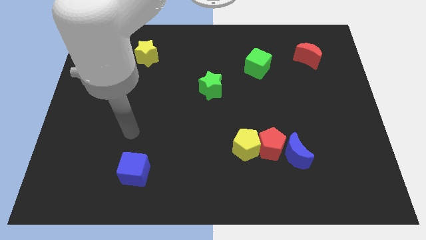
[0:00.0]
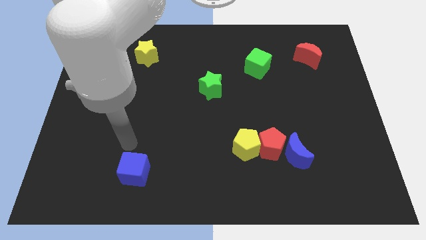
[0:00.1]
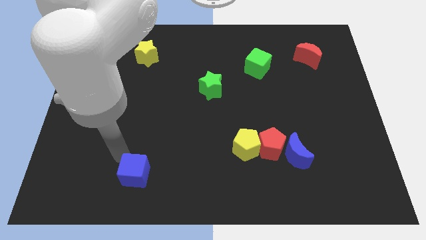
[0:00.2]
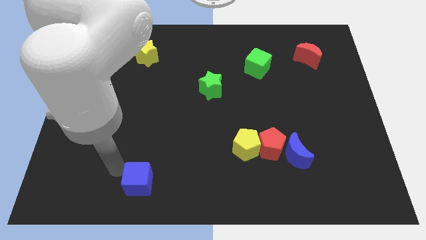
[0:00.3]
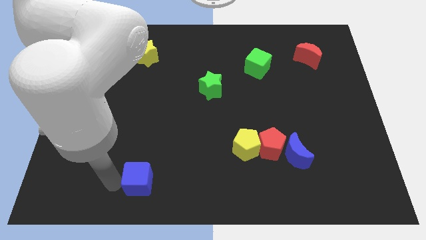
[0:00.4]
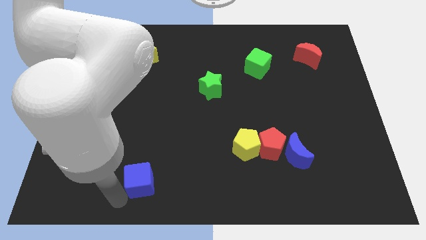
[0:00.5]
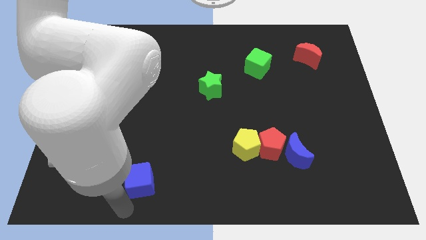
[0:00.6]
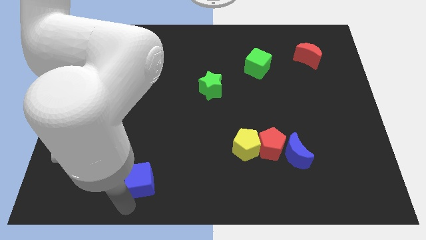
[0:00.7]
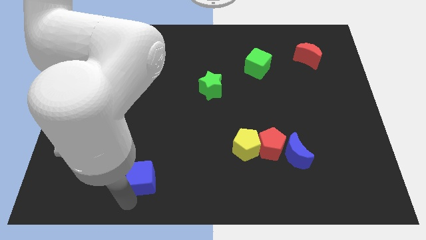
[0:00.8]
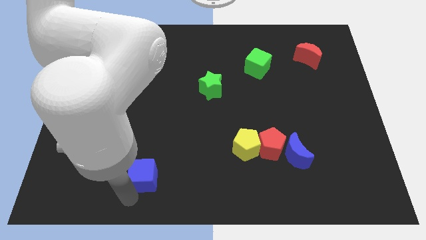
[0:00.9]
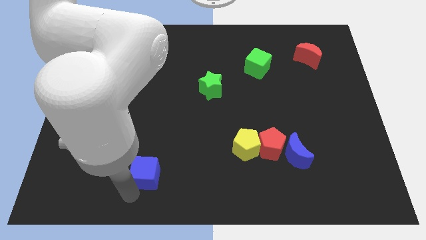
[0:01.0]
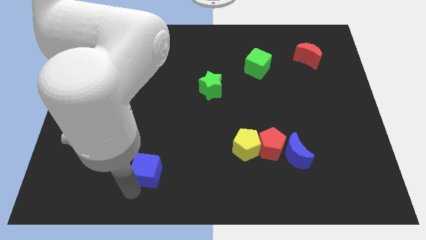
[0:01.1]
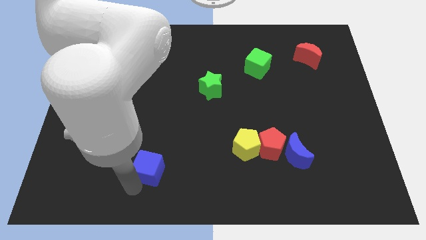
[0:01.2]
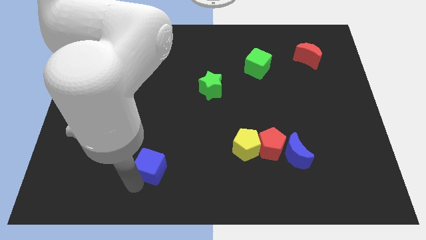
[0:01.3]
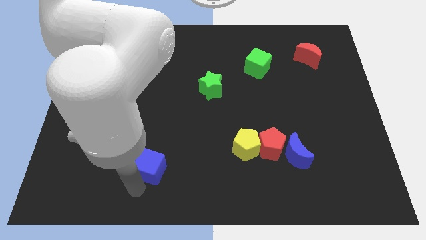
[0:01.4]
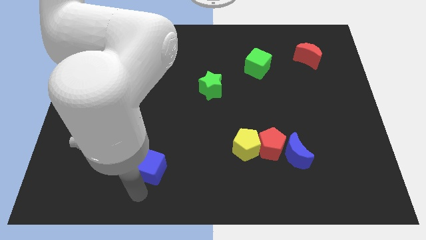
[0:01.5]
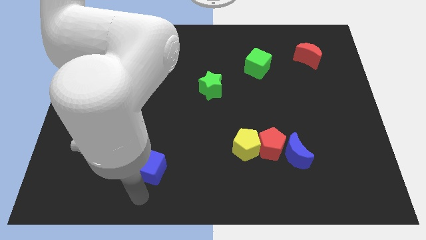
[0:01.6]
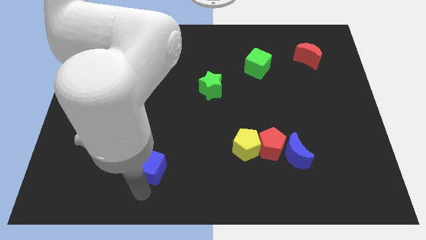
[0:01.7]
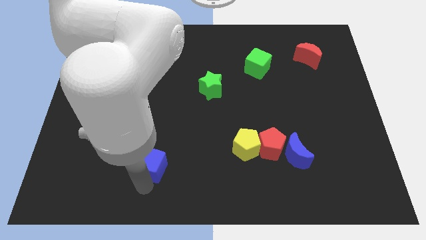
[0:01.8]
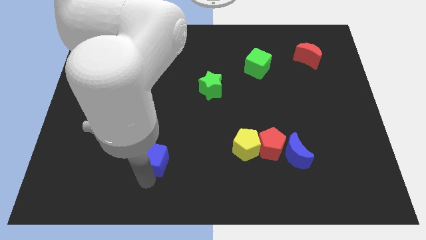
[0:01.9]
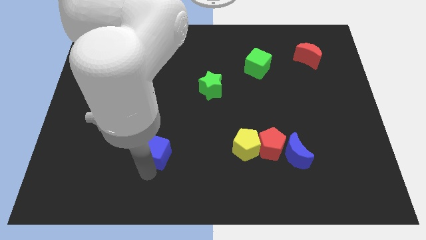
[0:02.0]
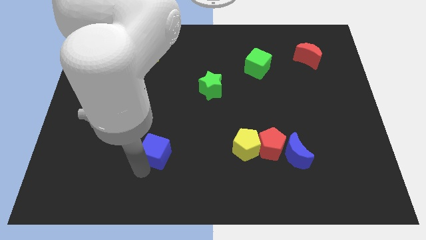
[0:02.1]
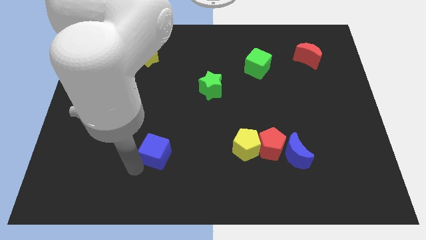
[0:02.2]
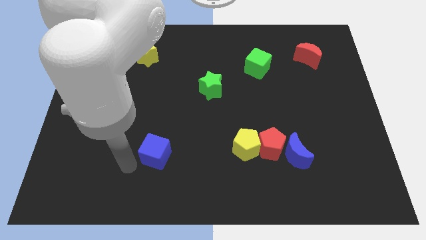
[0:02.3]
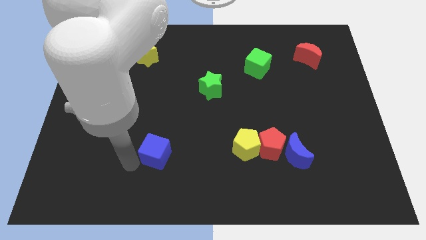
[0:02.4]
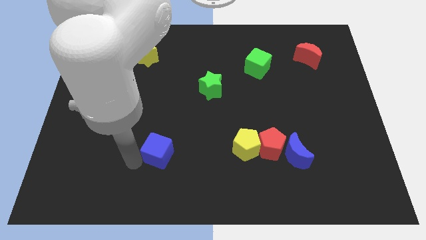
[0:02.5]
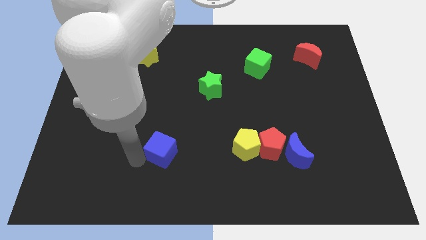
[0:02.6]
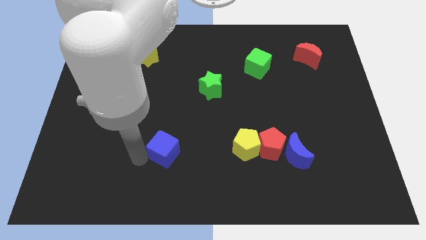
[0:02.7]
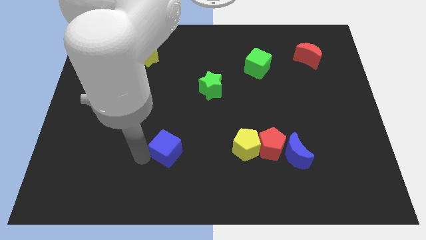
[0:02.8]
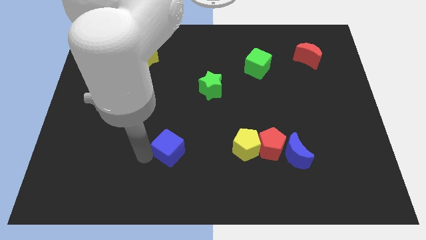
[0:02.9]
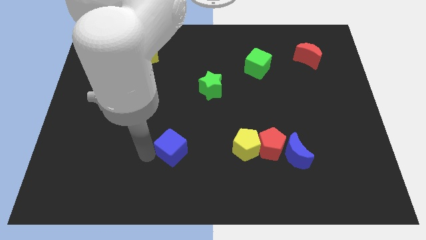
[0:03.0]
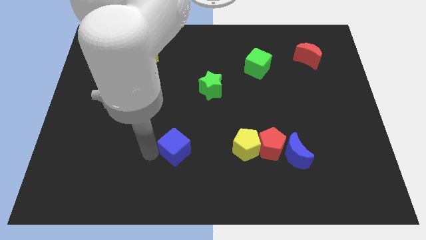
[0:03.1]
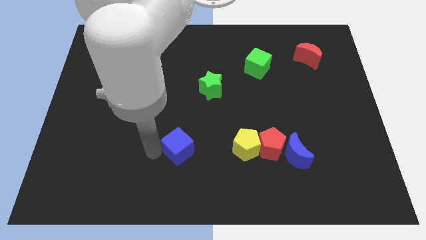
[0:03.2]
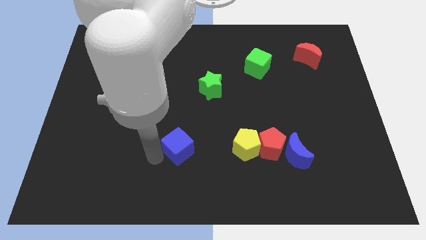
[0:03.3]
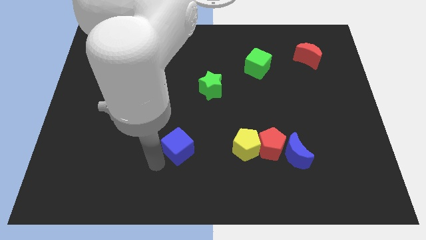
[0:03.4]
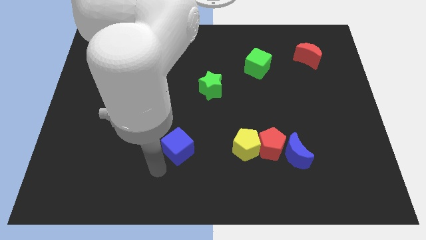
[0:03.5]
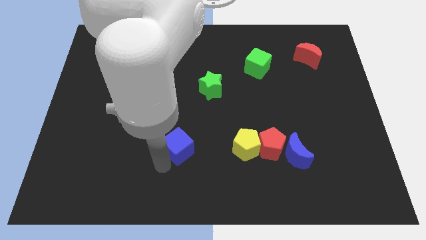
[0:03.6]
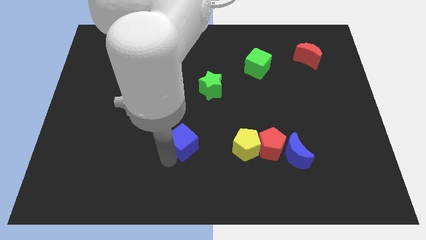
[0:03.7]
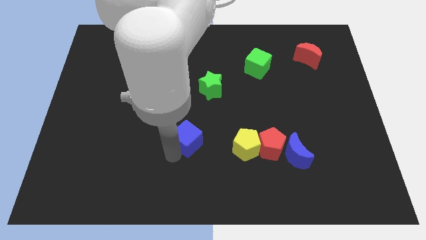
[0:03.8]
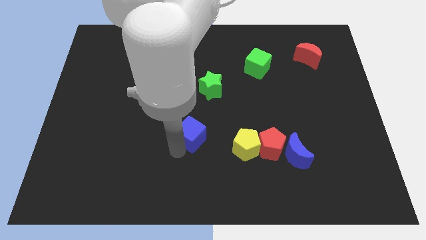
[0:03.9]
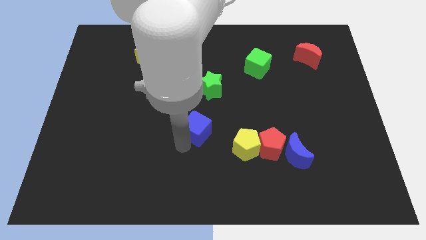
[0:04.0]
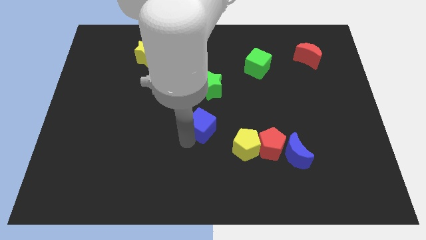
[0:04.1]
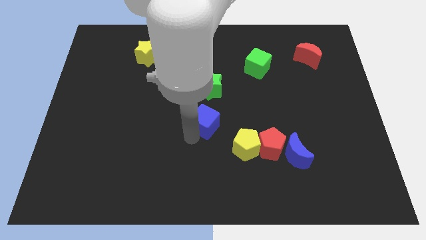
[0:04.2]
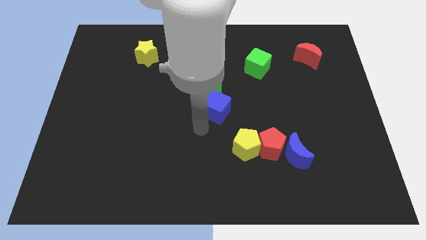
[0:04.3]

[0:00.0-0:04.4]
slide the blue cube diagonally up and right

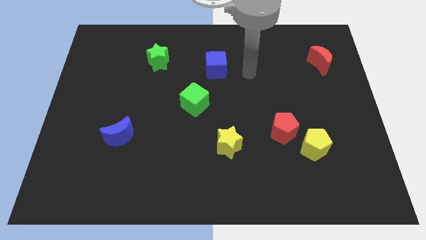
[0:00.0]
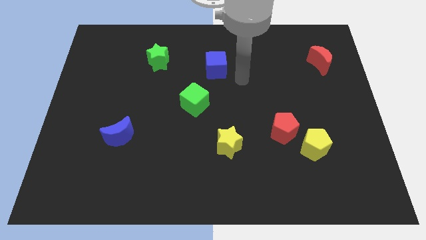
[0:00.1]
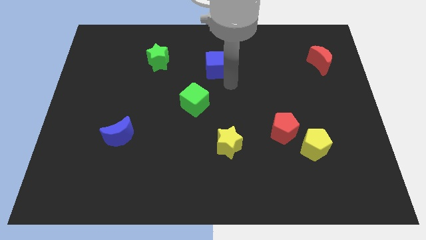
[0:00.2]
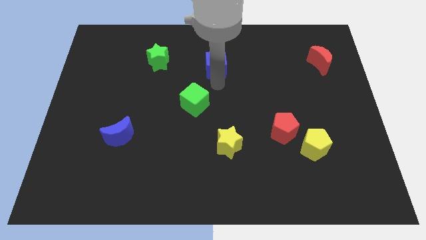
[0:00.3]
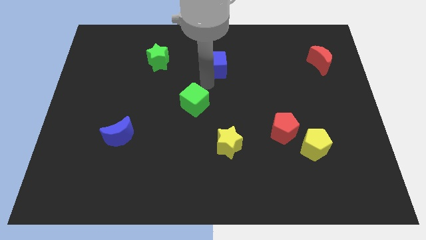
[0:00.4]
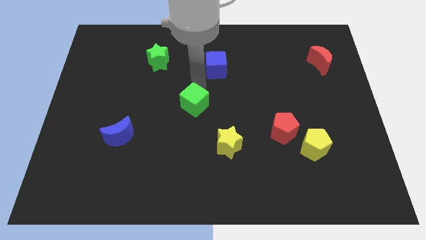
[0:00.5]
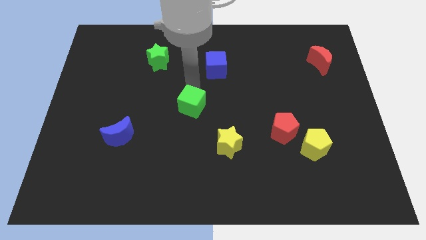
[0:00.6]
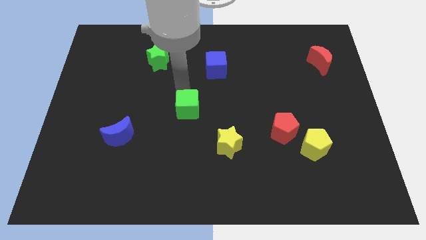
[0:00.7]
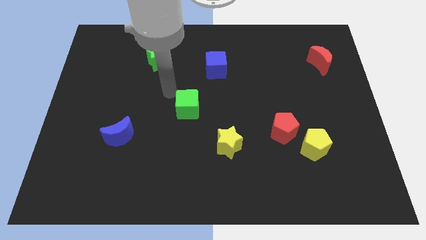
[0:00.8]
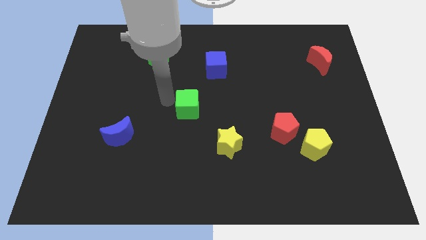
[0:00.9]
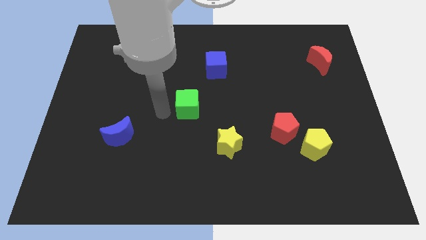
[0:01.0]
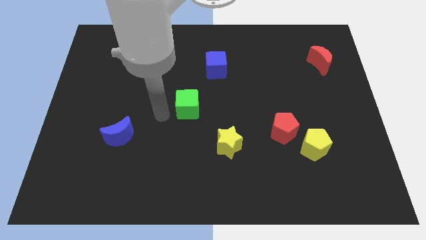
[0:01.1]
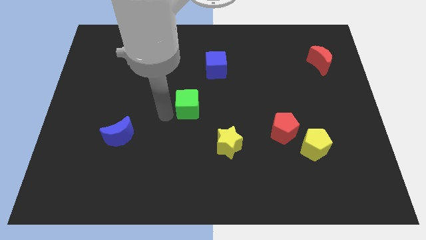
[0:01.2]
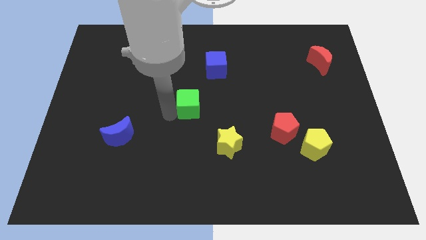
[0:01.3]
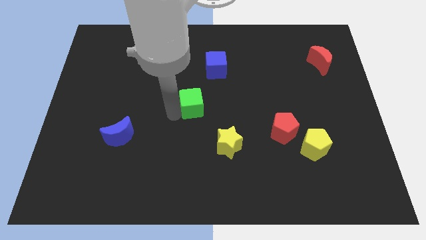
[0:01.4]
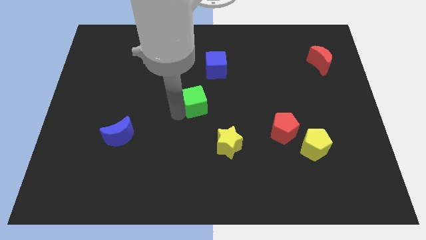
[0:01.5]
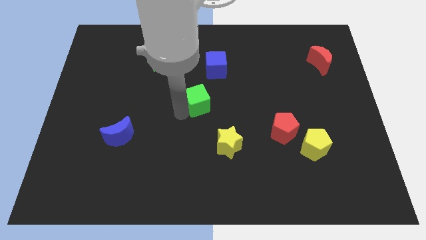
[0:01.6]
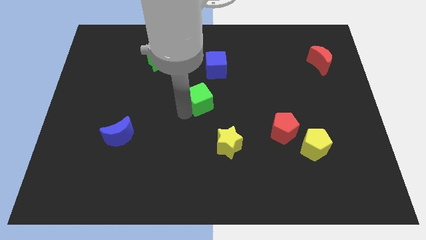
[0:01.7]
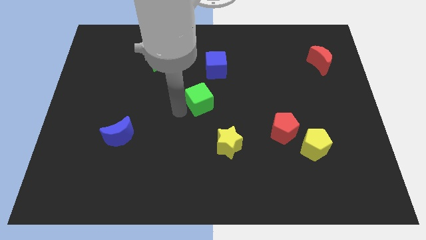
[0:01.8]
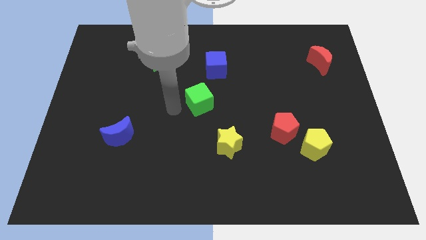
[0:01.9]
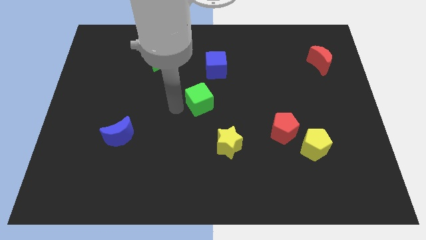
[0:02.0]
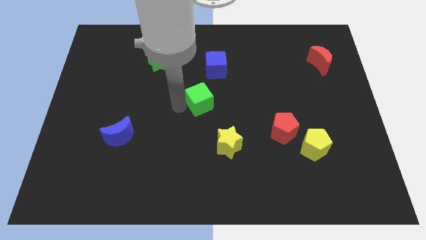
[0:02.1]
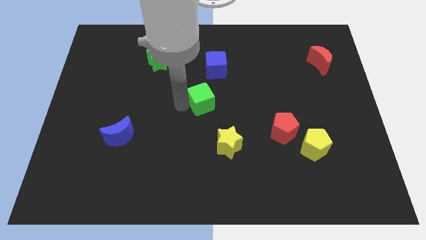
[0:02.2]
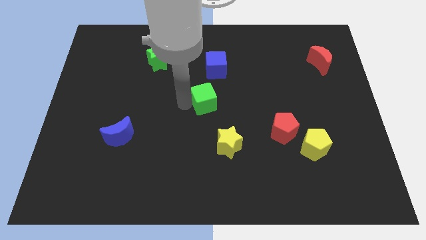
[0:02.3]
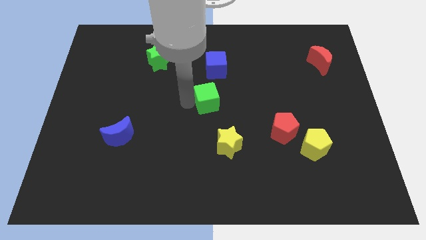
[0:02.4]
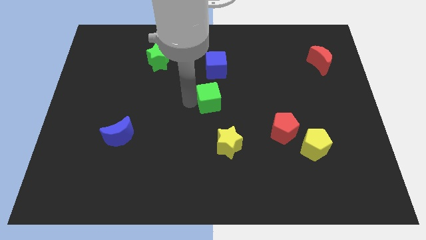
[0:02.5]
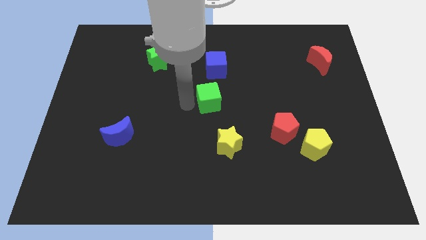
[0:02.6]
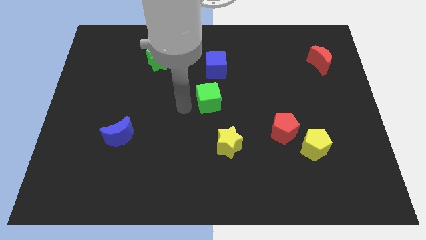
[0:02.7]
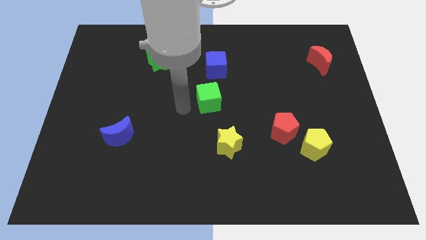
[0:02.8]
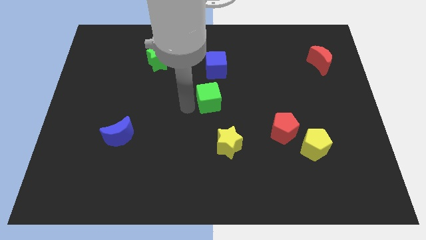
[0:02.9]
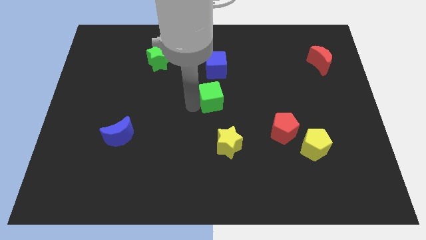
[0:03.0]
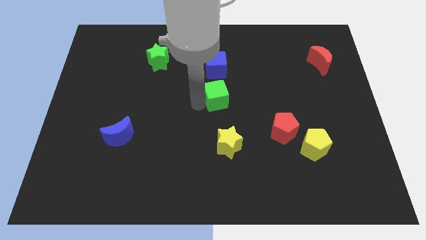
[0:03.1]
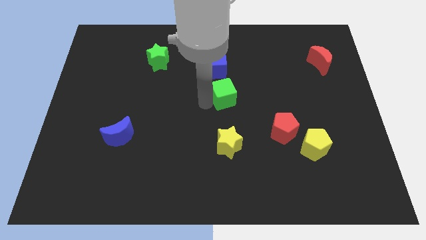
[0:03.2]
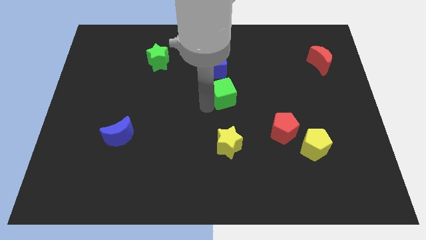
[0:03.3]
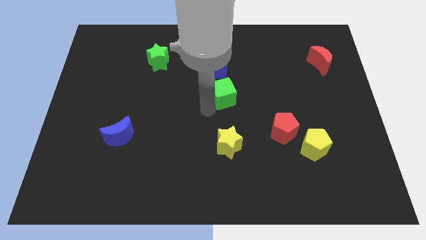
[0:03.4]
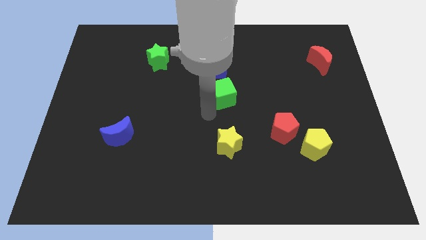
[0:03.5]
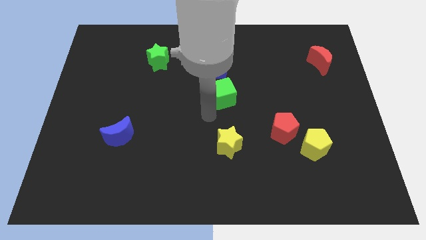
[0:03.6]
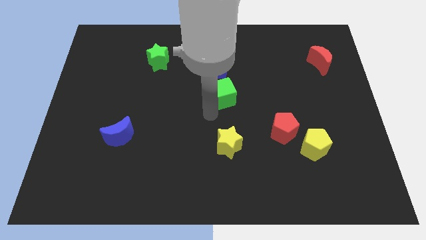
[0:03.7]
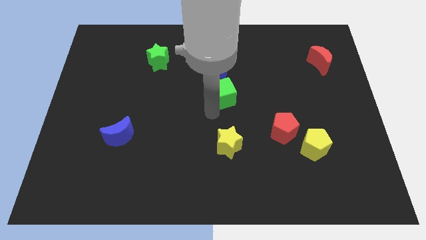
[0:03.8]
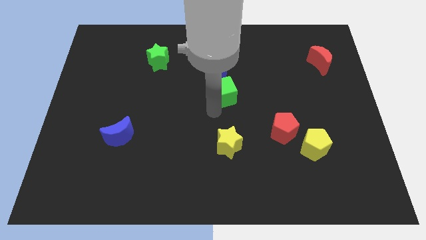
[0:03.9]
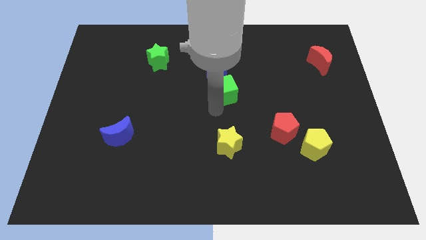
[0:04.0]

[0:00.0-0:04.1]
slightly slide the green cube up and to the right
